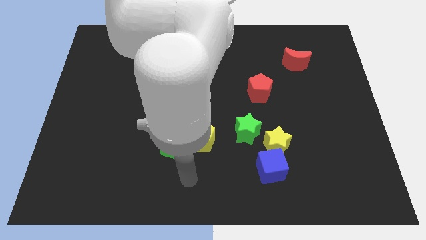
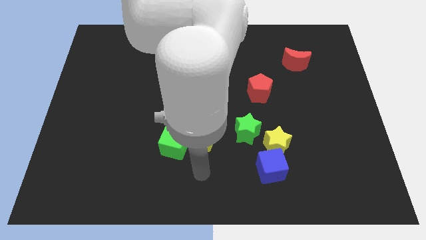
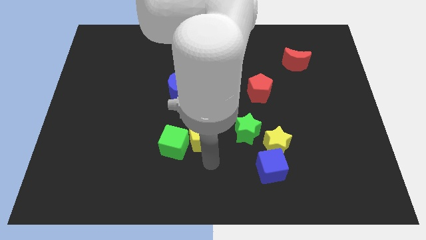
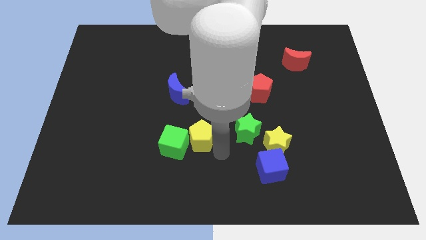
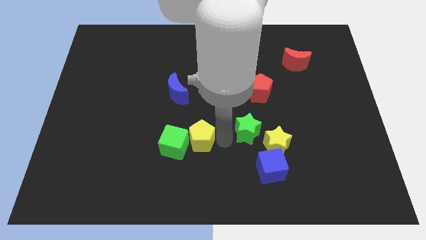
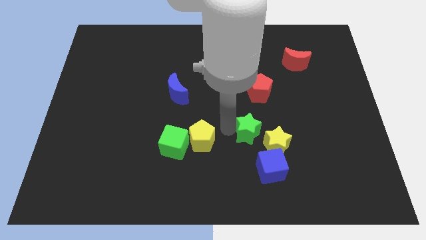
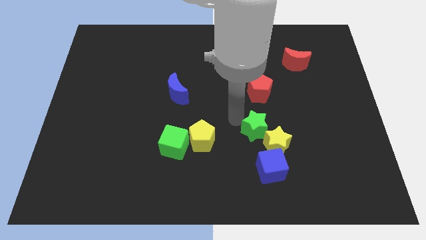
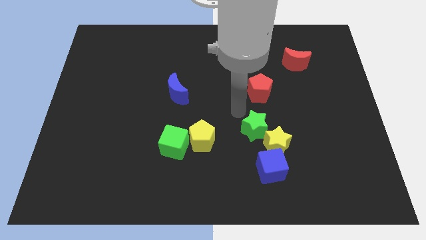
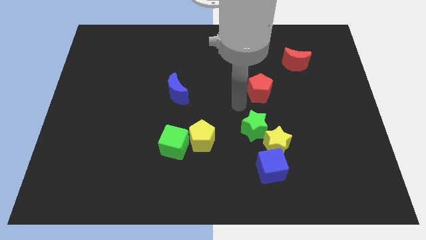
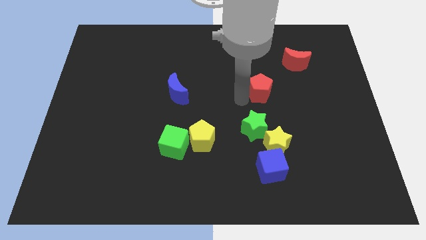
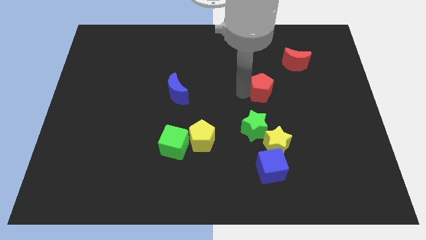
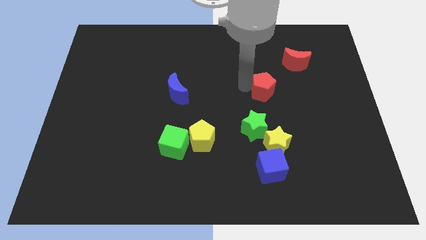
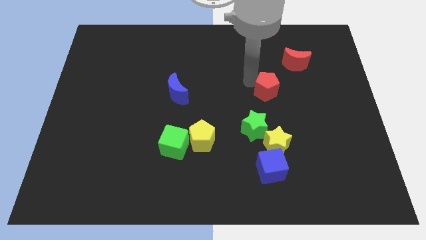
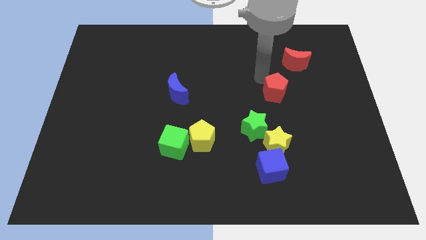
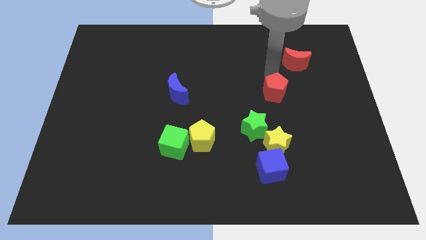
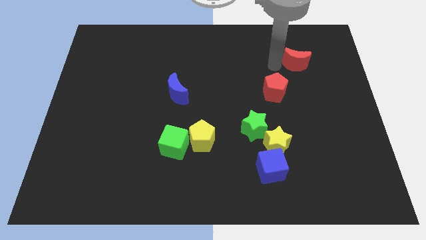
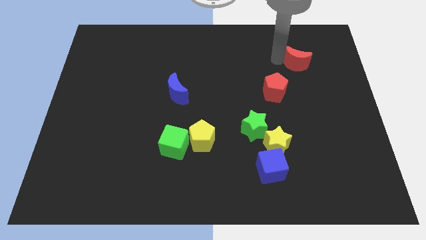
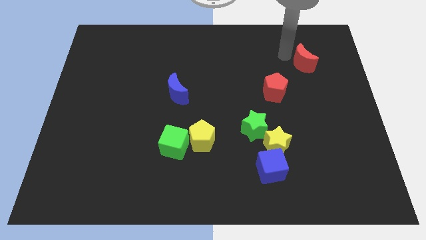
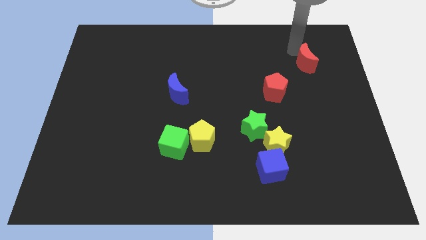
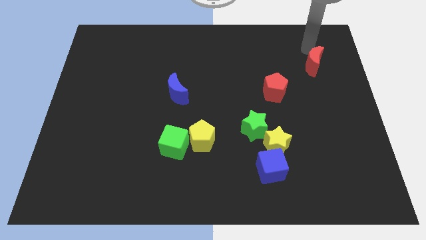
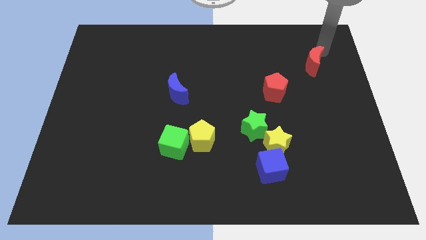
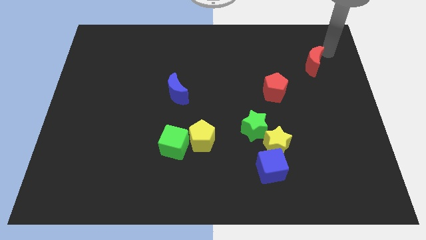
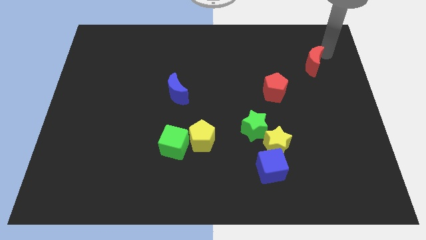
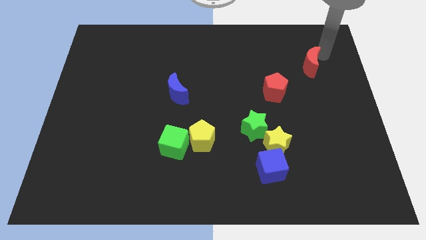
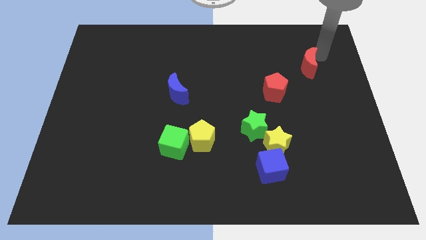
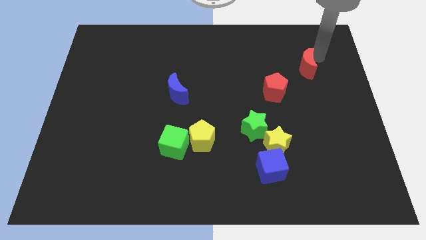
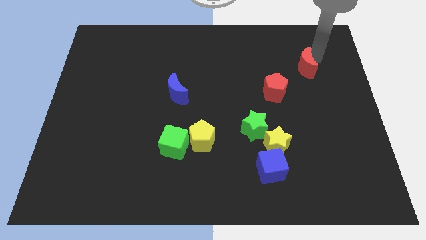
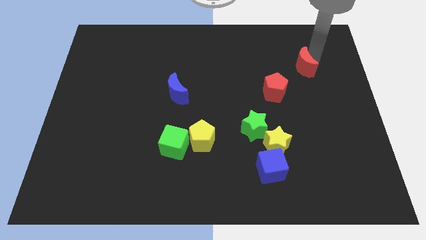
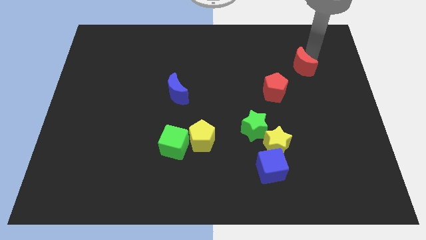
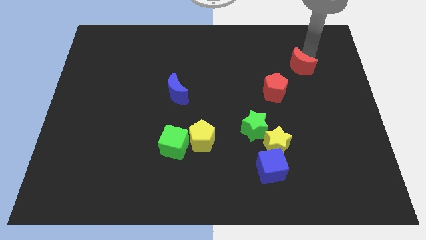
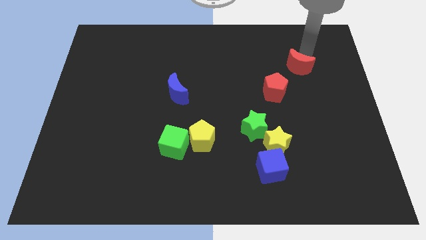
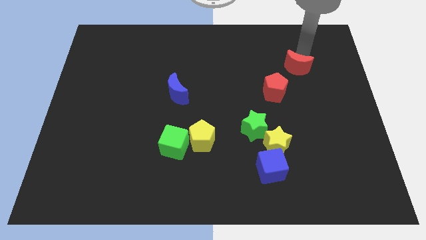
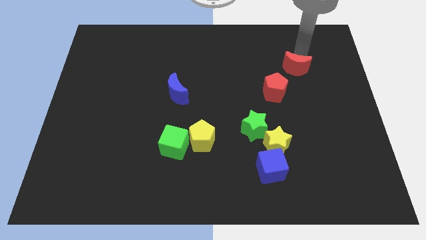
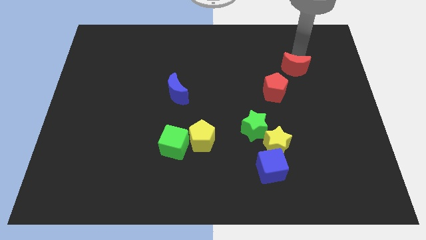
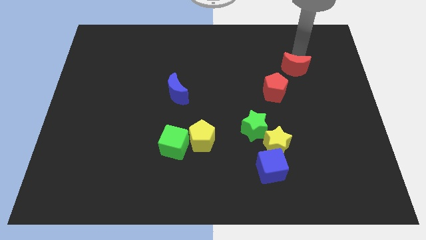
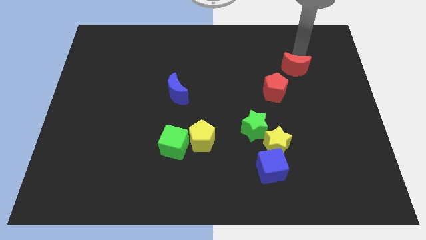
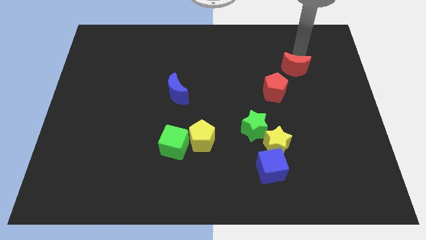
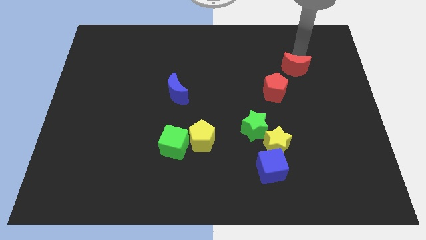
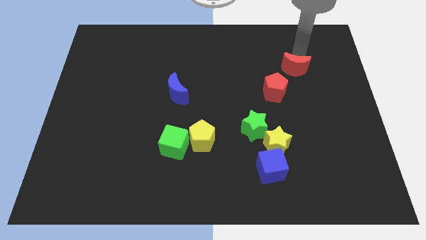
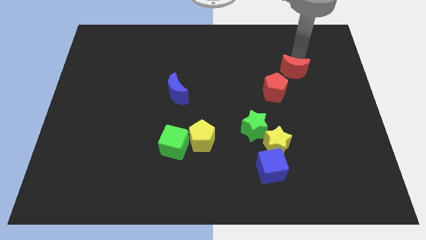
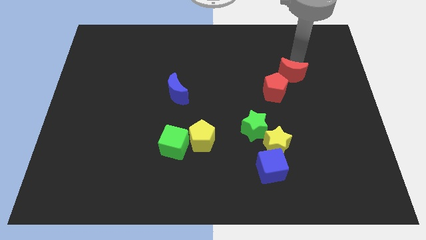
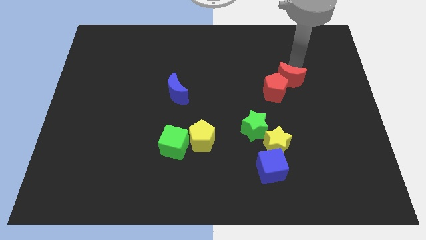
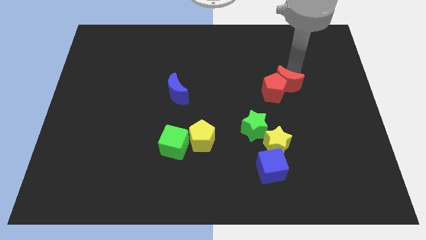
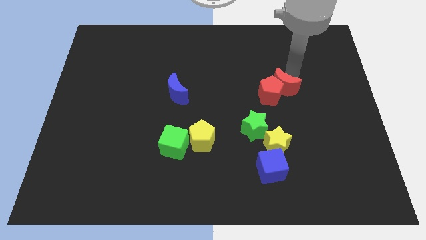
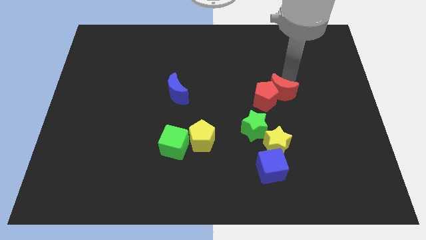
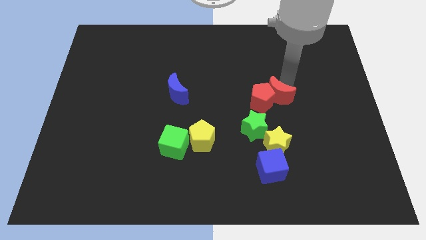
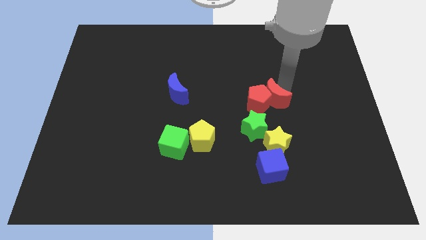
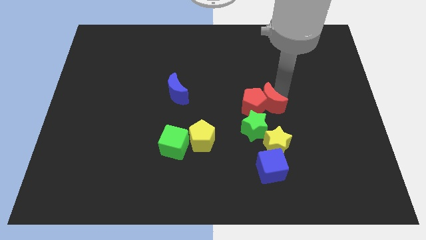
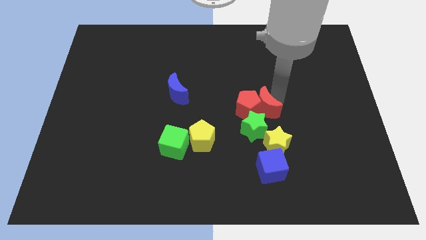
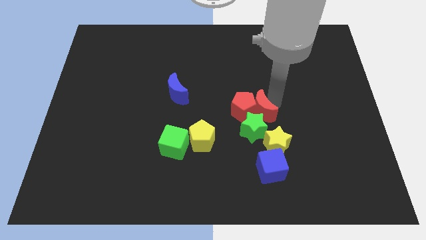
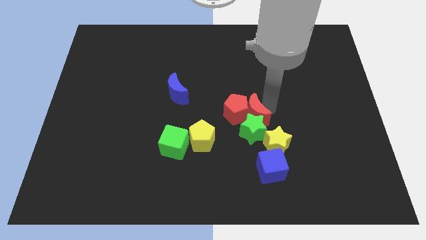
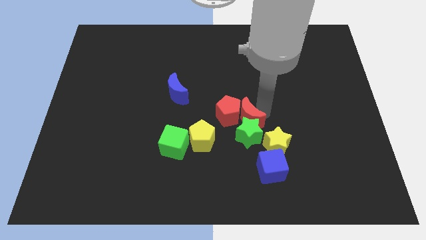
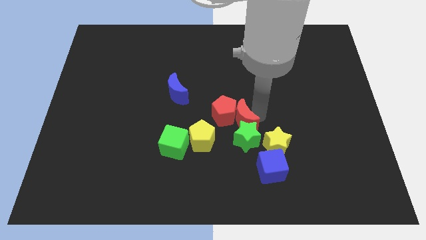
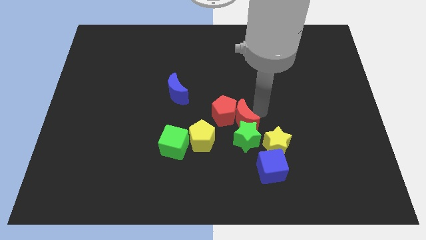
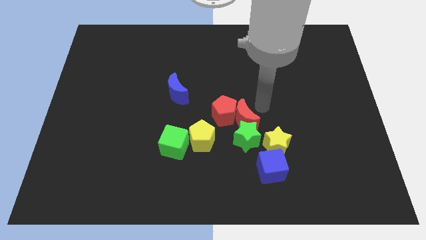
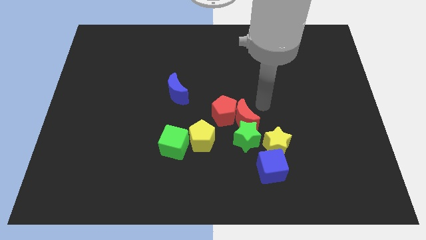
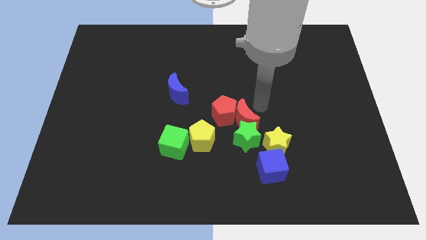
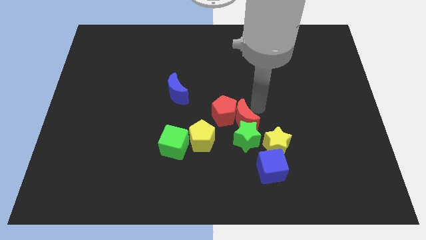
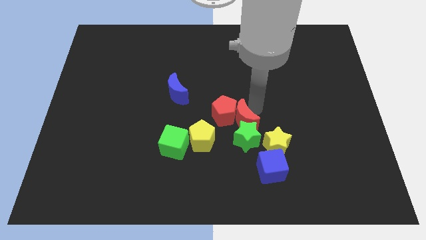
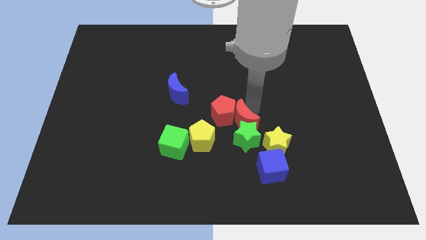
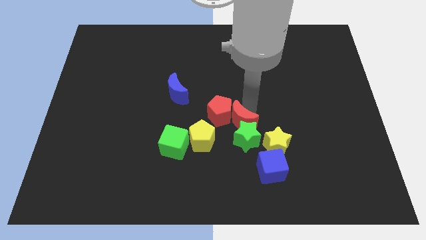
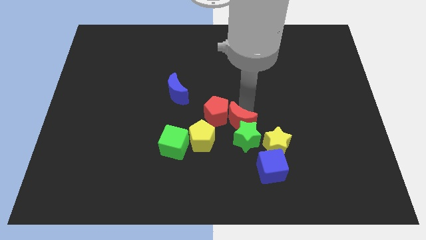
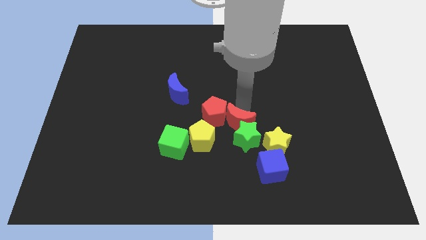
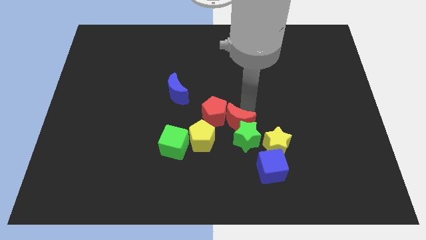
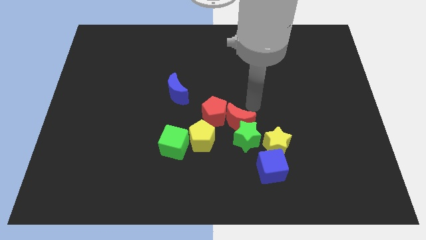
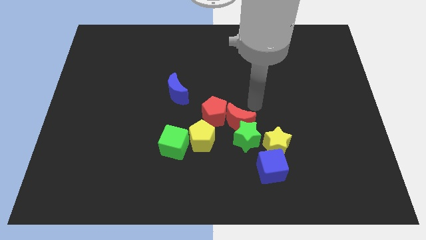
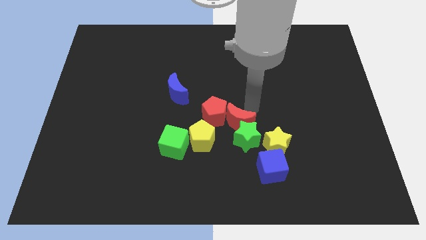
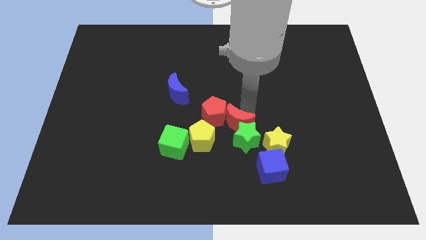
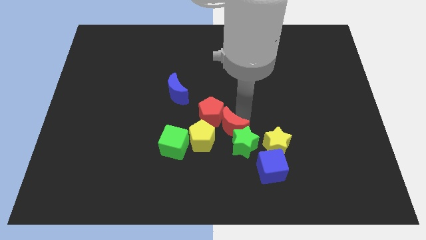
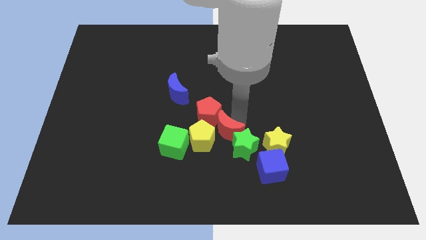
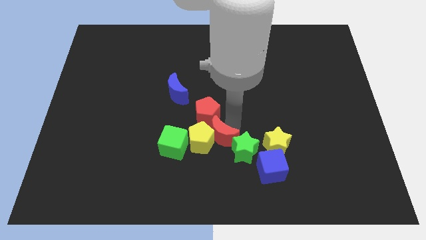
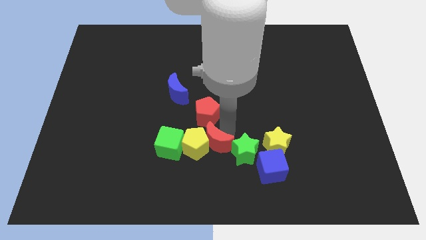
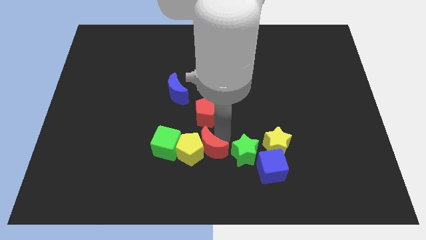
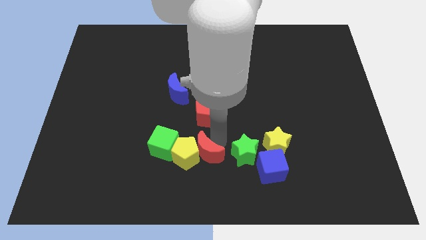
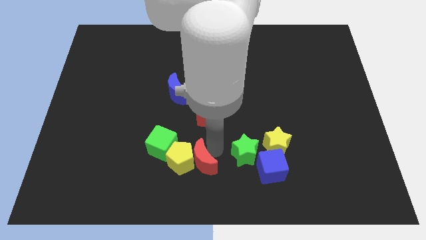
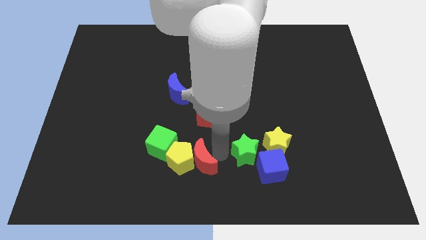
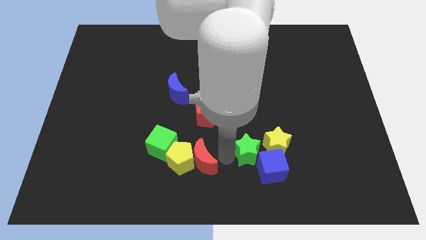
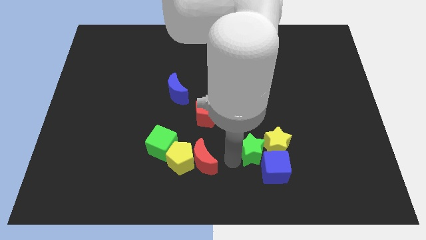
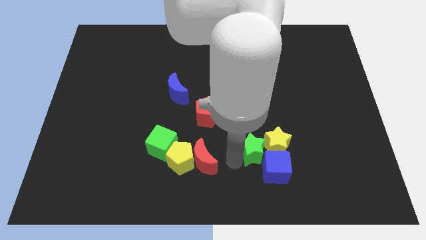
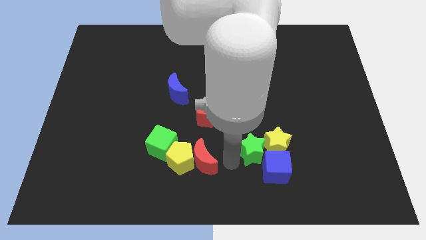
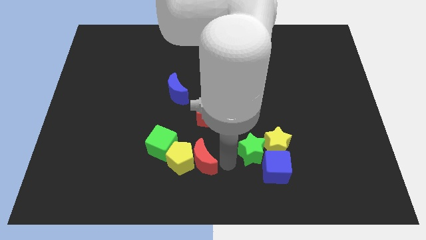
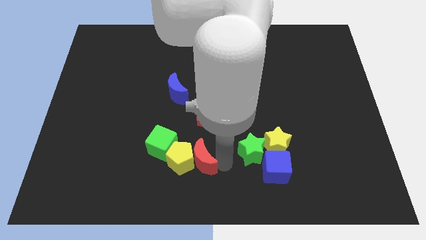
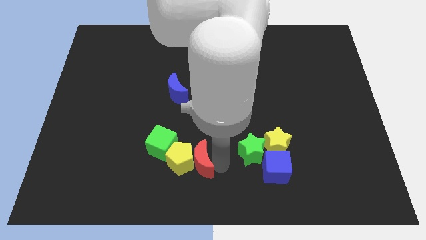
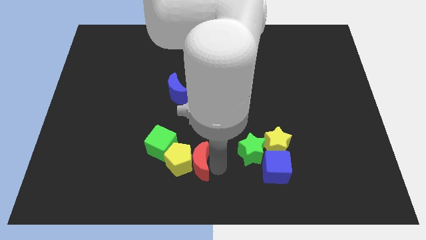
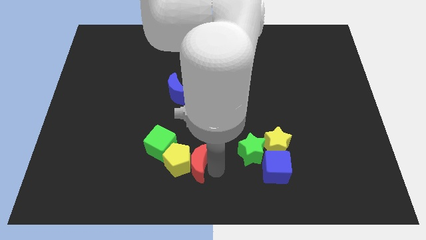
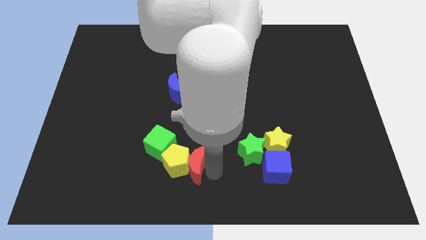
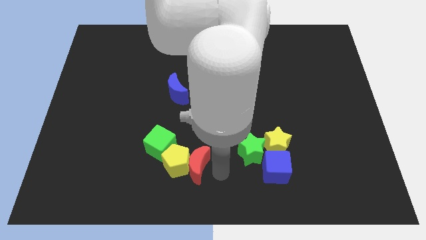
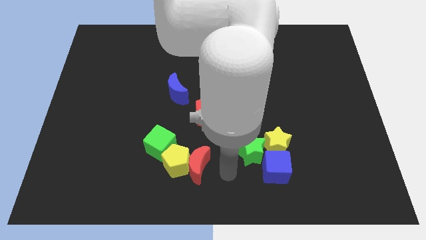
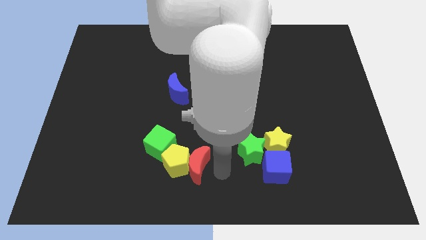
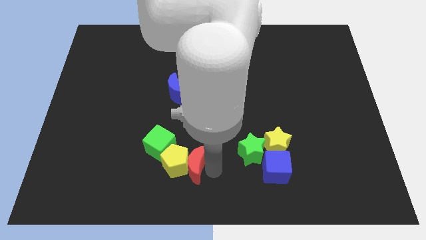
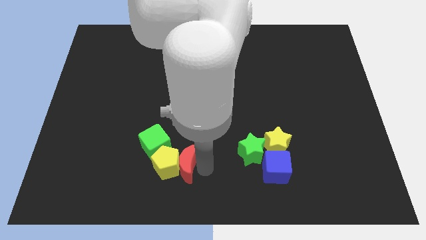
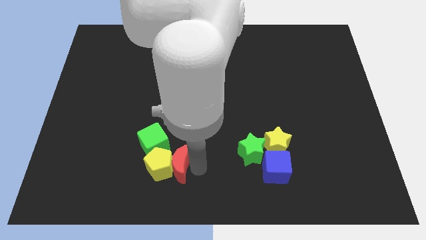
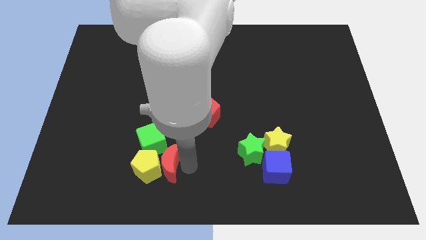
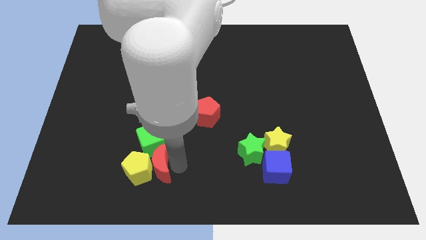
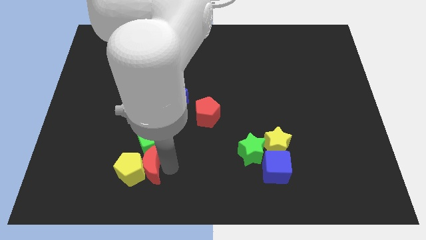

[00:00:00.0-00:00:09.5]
put the red moon to the bottom left side of the green cube
